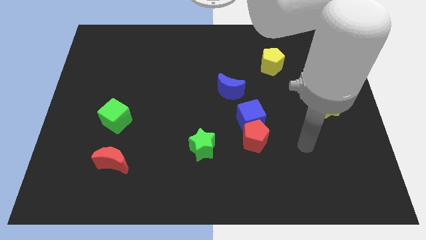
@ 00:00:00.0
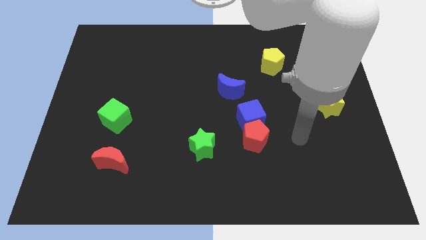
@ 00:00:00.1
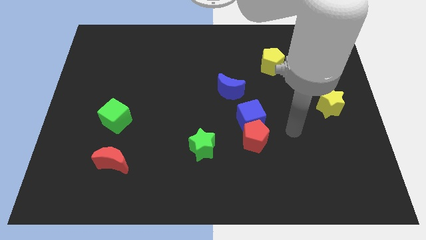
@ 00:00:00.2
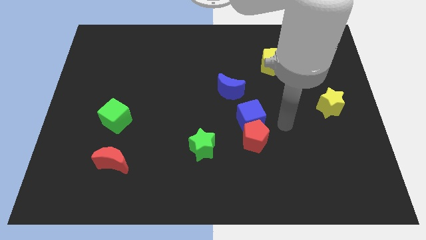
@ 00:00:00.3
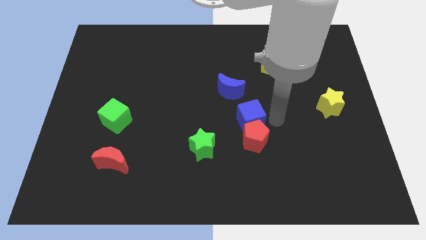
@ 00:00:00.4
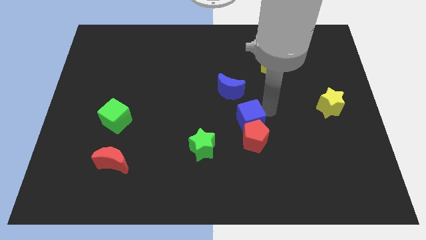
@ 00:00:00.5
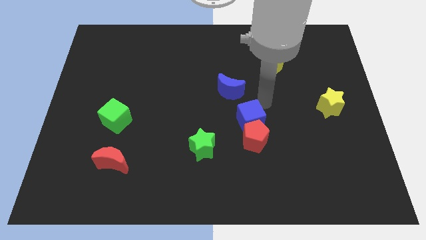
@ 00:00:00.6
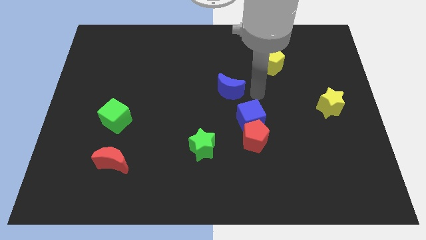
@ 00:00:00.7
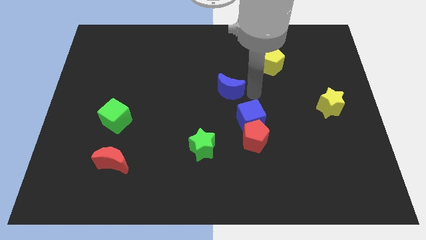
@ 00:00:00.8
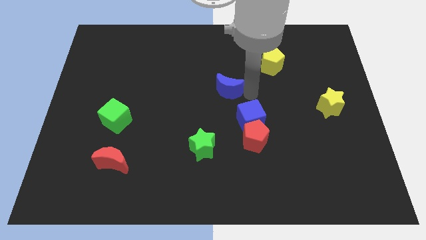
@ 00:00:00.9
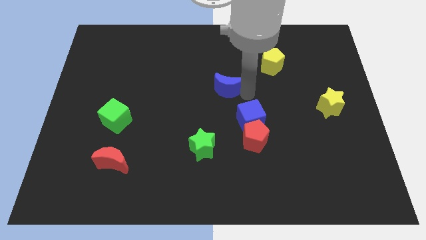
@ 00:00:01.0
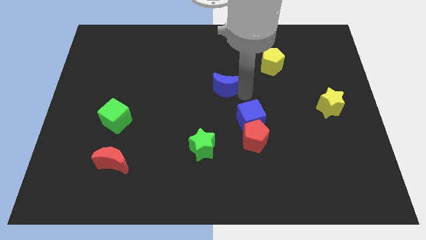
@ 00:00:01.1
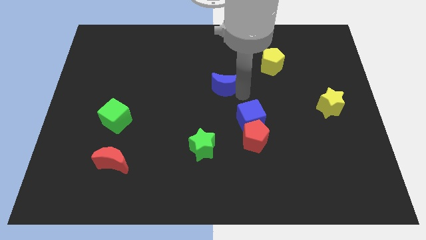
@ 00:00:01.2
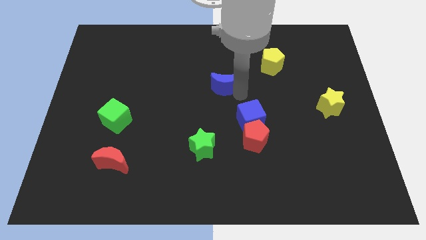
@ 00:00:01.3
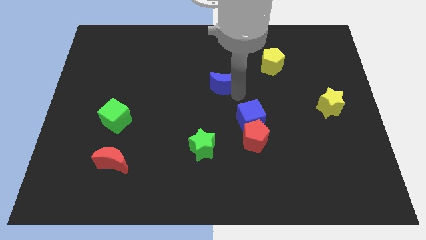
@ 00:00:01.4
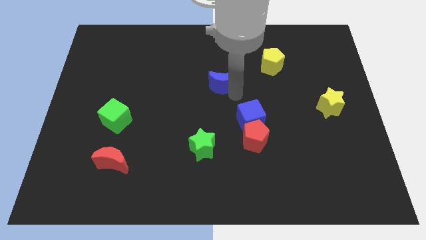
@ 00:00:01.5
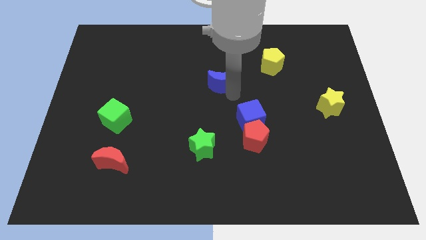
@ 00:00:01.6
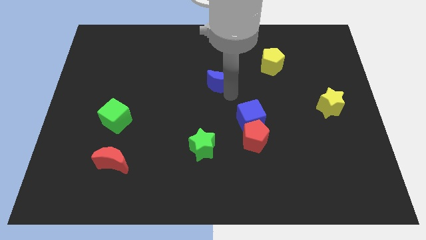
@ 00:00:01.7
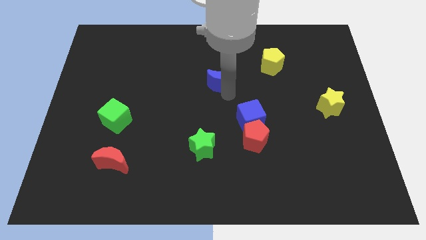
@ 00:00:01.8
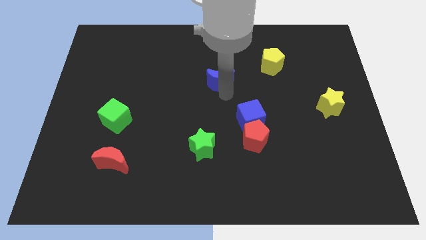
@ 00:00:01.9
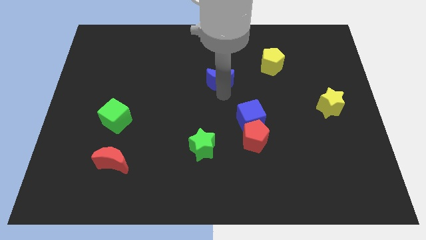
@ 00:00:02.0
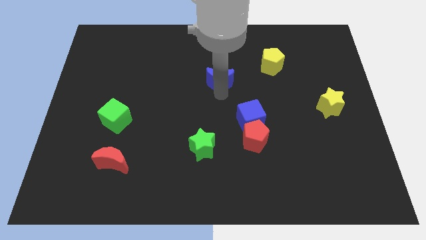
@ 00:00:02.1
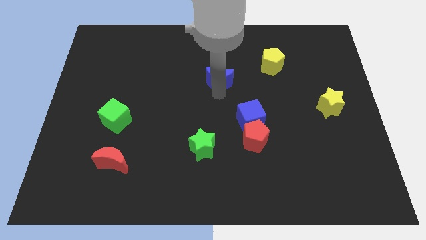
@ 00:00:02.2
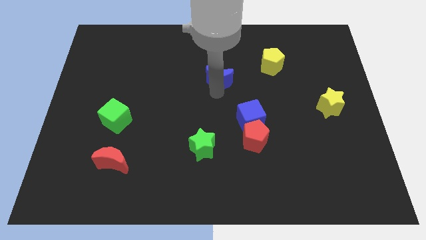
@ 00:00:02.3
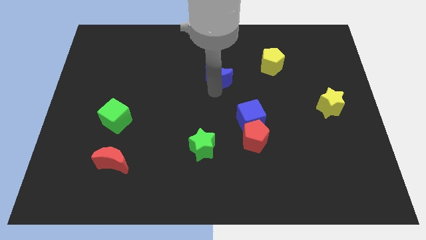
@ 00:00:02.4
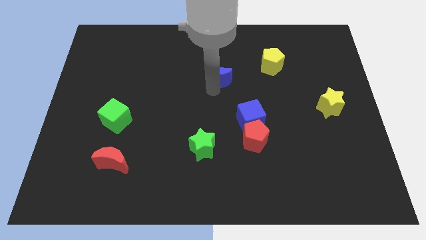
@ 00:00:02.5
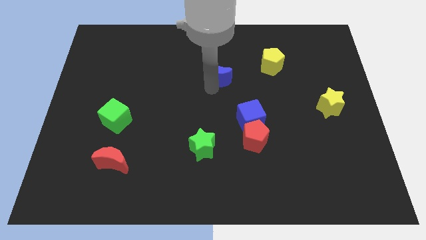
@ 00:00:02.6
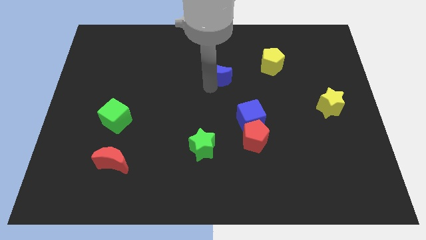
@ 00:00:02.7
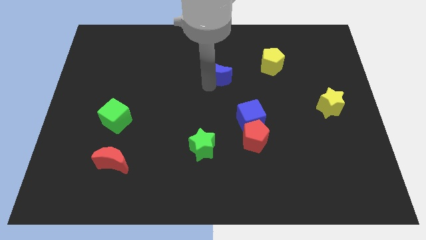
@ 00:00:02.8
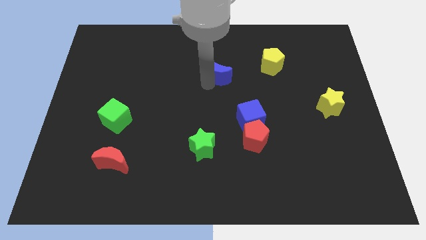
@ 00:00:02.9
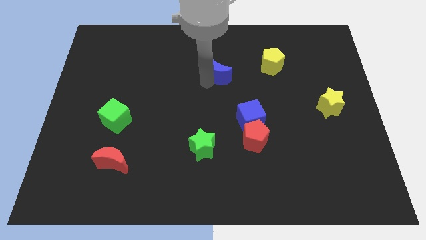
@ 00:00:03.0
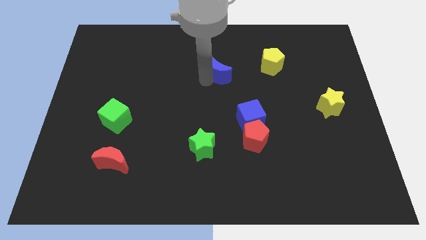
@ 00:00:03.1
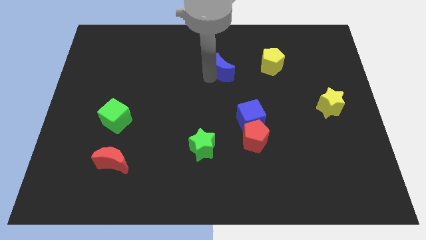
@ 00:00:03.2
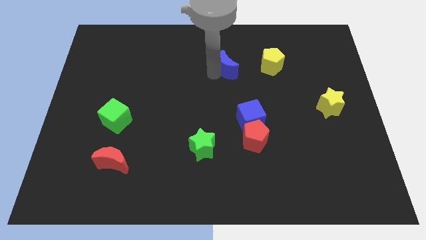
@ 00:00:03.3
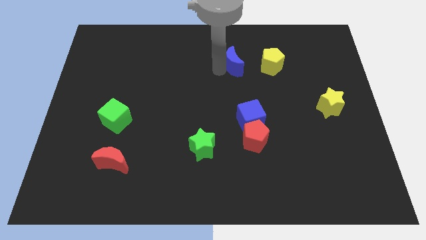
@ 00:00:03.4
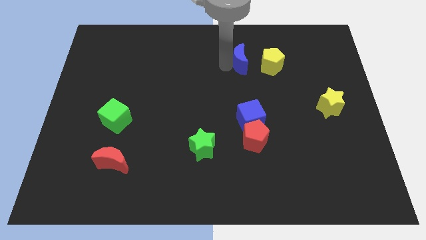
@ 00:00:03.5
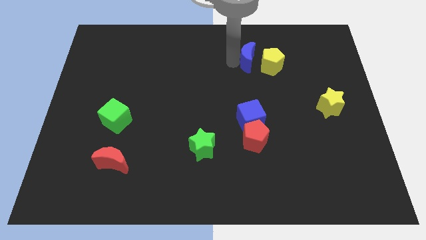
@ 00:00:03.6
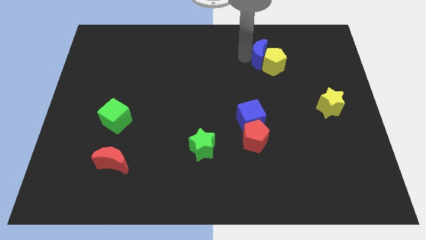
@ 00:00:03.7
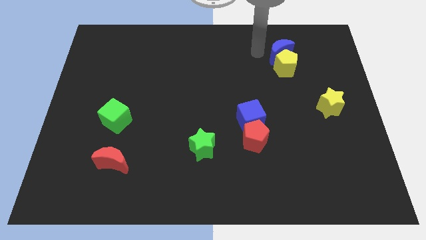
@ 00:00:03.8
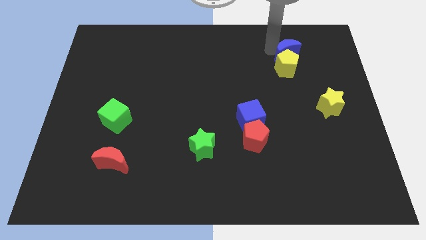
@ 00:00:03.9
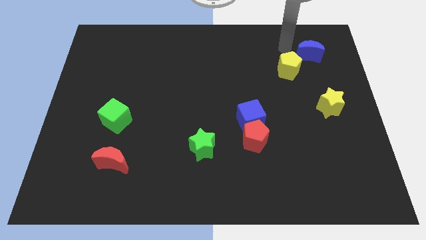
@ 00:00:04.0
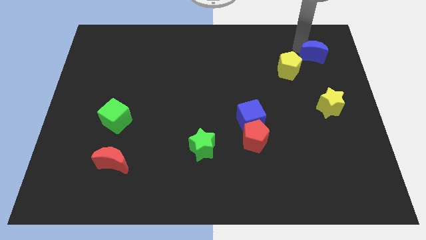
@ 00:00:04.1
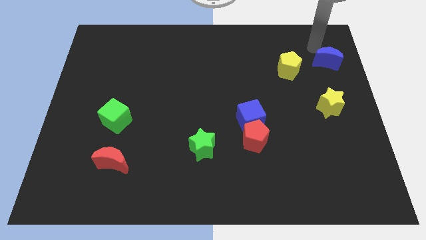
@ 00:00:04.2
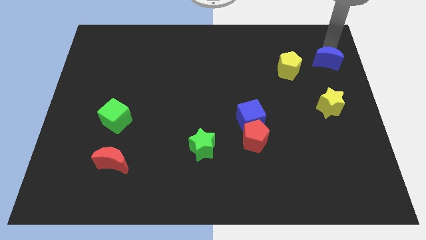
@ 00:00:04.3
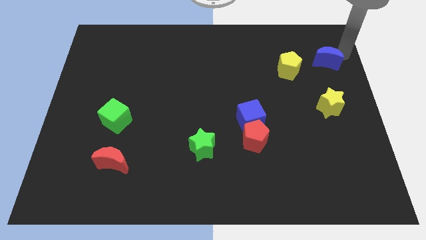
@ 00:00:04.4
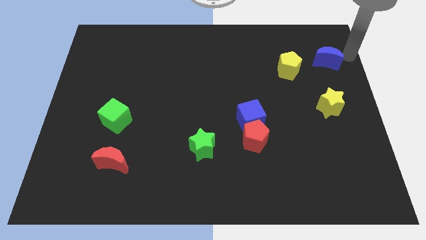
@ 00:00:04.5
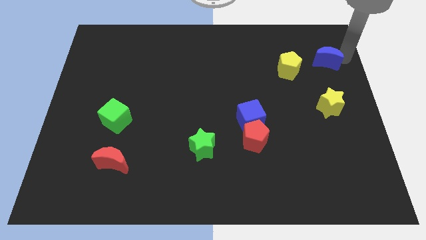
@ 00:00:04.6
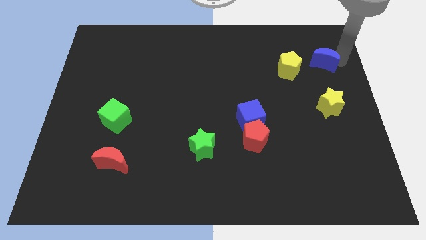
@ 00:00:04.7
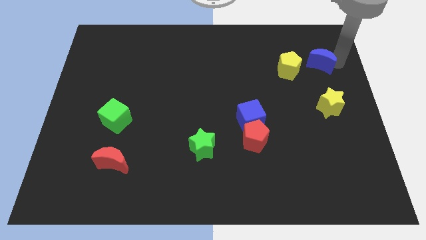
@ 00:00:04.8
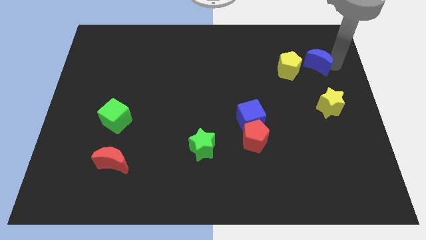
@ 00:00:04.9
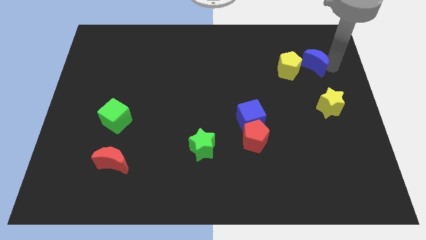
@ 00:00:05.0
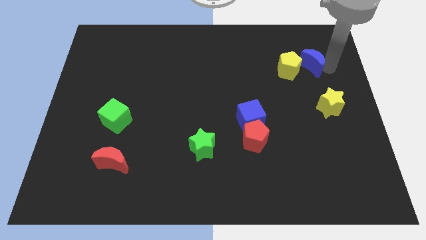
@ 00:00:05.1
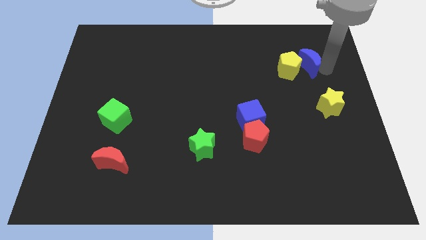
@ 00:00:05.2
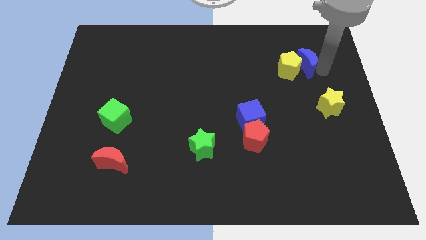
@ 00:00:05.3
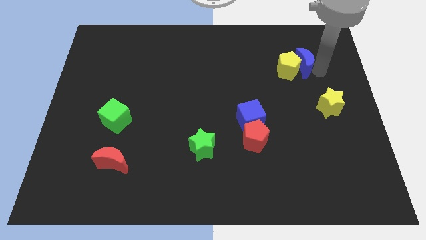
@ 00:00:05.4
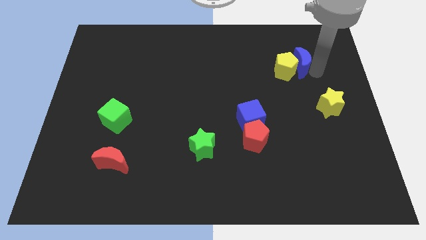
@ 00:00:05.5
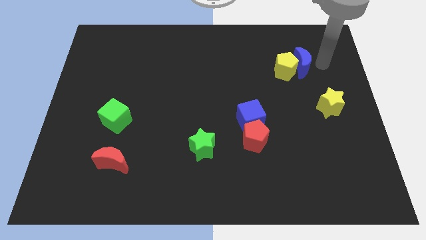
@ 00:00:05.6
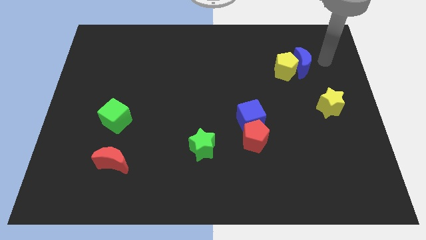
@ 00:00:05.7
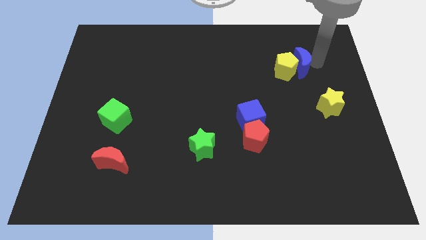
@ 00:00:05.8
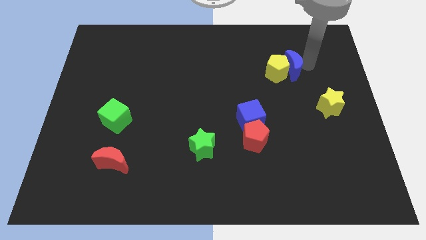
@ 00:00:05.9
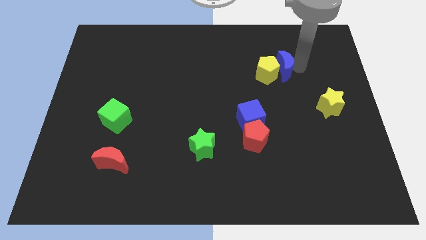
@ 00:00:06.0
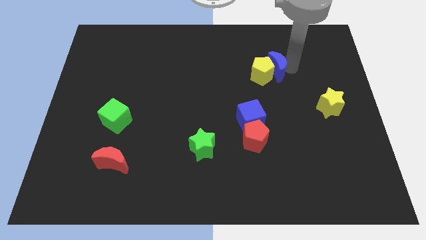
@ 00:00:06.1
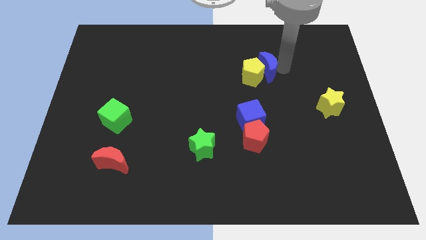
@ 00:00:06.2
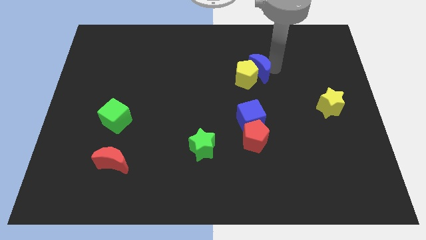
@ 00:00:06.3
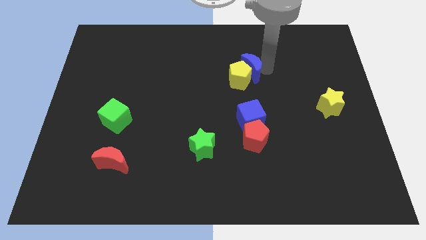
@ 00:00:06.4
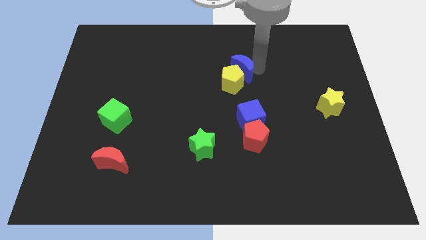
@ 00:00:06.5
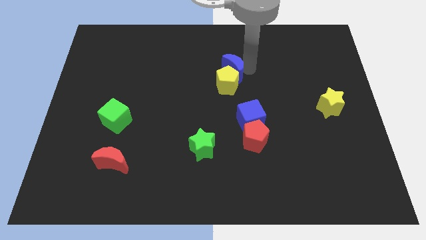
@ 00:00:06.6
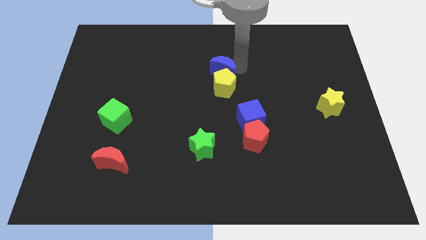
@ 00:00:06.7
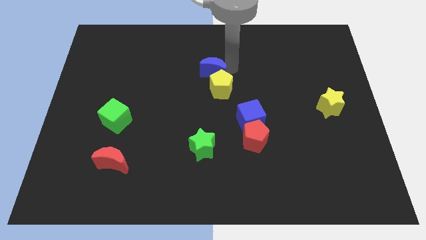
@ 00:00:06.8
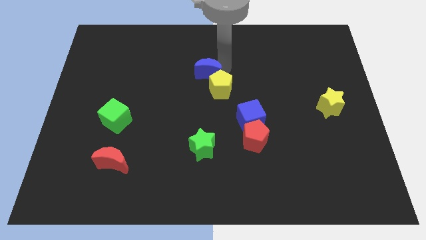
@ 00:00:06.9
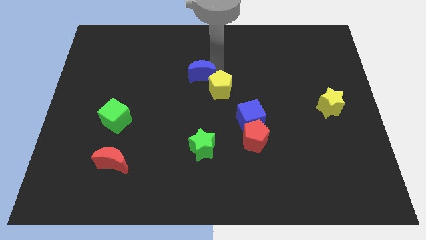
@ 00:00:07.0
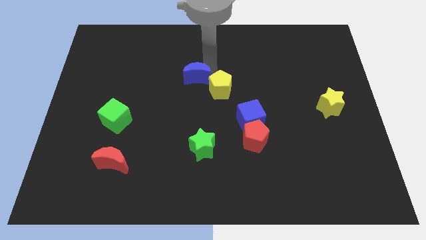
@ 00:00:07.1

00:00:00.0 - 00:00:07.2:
move the blue moon a little bit left

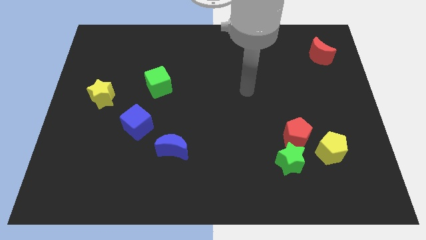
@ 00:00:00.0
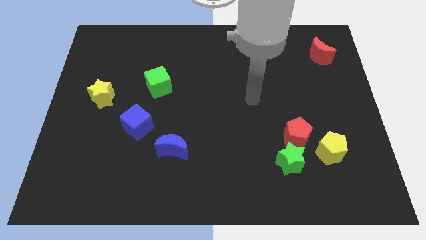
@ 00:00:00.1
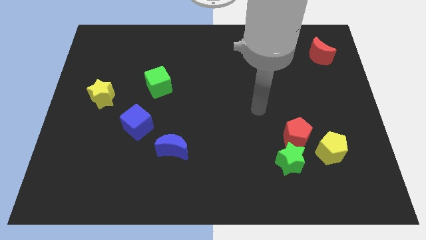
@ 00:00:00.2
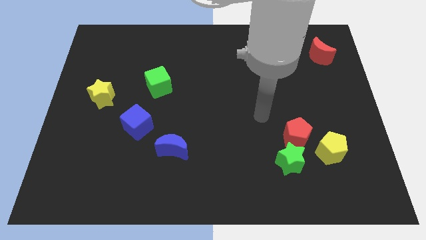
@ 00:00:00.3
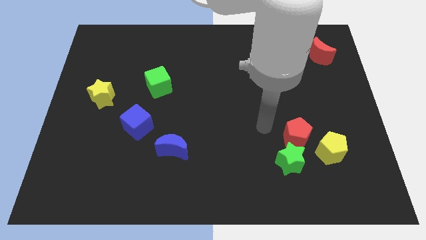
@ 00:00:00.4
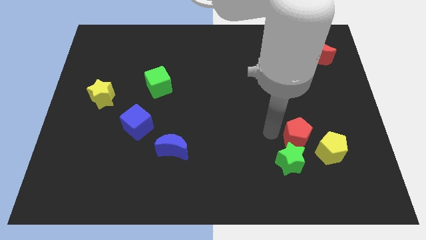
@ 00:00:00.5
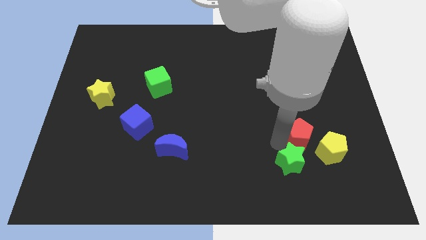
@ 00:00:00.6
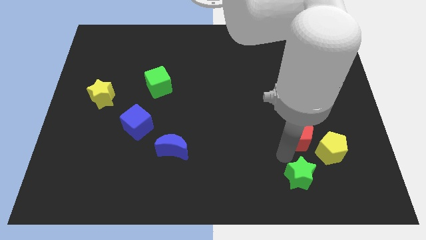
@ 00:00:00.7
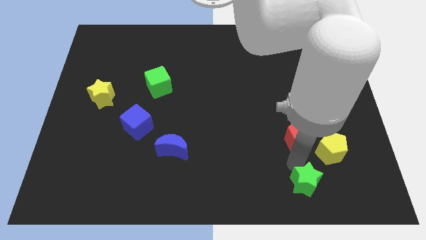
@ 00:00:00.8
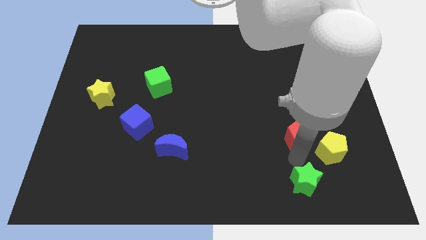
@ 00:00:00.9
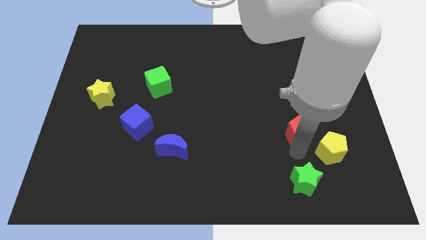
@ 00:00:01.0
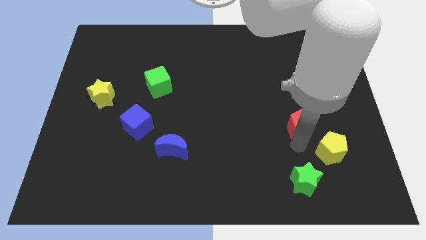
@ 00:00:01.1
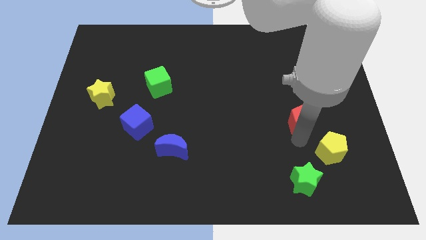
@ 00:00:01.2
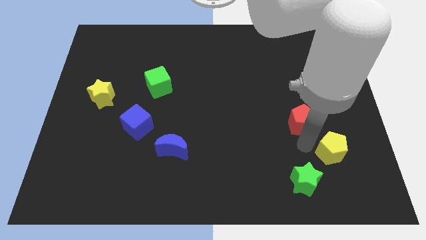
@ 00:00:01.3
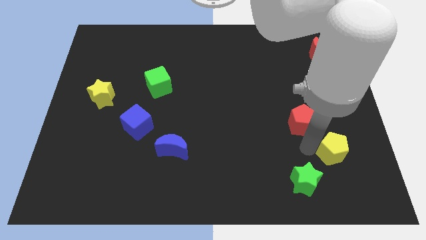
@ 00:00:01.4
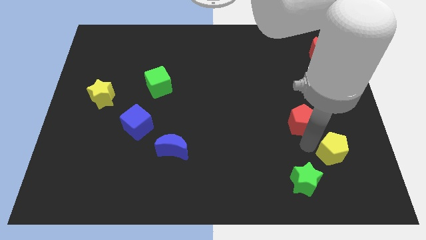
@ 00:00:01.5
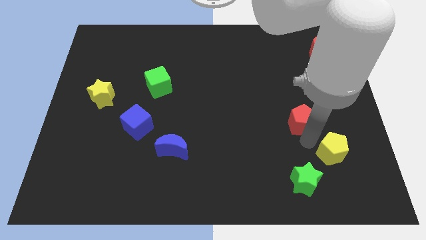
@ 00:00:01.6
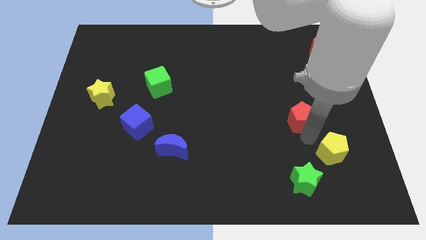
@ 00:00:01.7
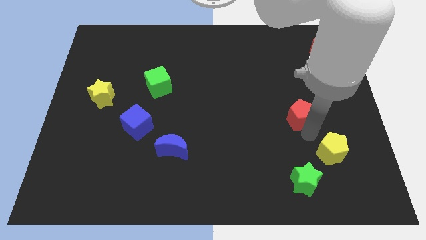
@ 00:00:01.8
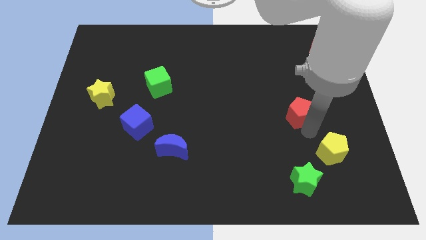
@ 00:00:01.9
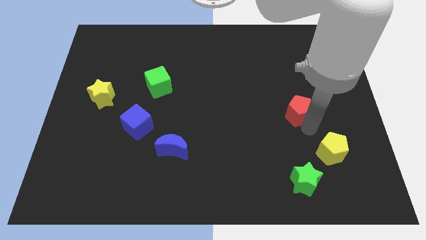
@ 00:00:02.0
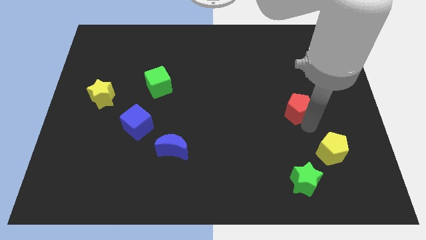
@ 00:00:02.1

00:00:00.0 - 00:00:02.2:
push the red pentagon a little upwards
